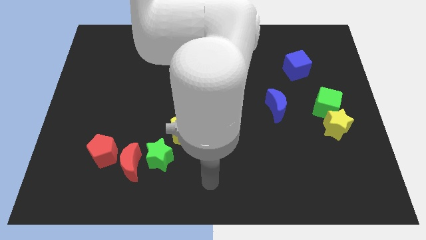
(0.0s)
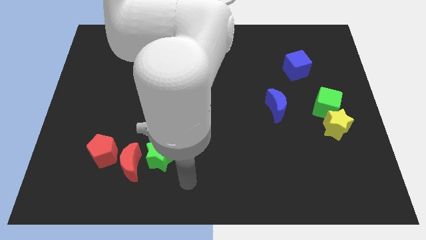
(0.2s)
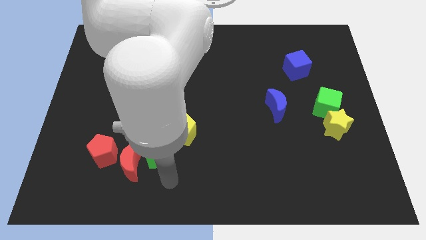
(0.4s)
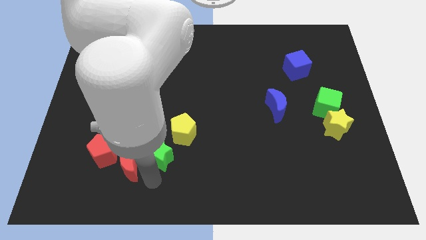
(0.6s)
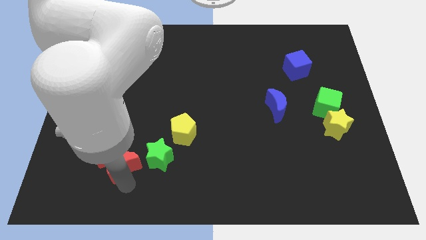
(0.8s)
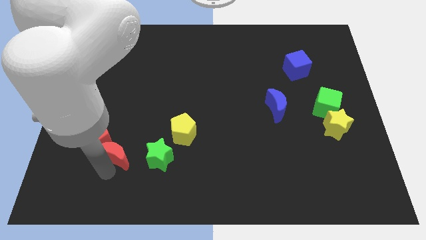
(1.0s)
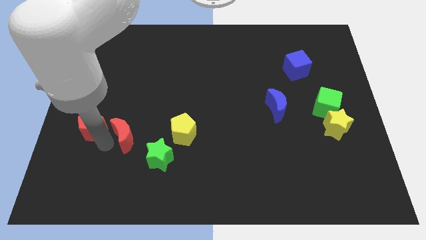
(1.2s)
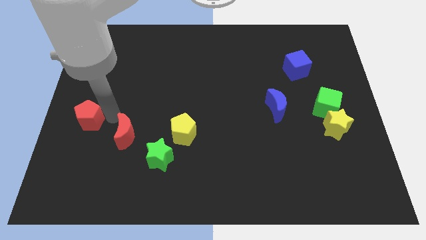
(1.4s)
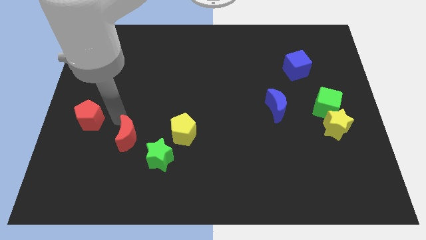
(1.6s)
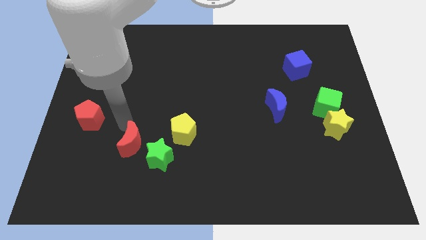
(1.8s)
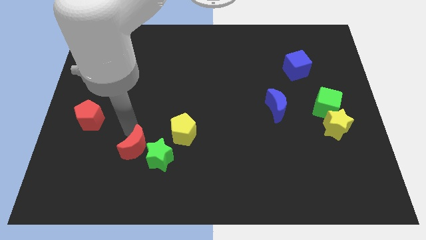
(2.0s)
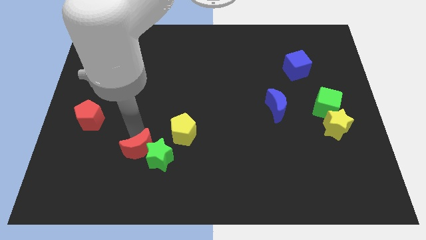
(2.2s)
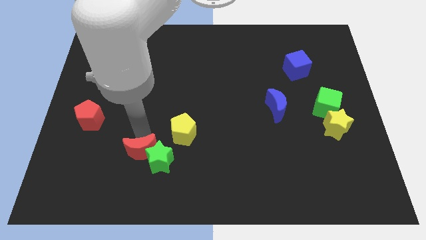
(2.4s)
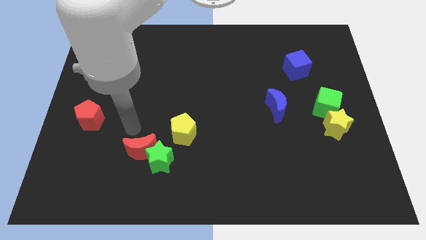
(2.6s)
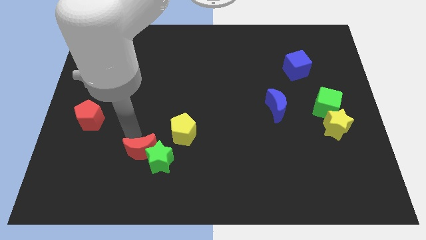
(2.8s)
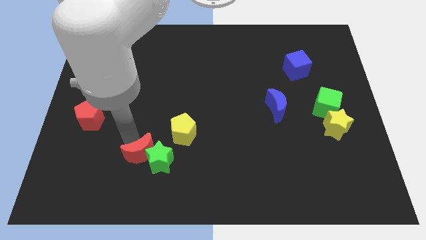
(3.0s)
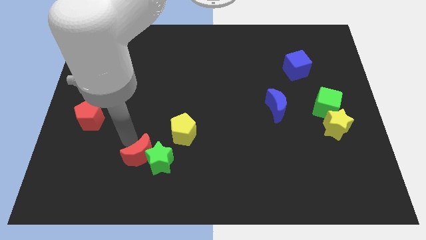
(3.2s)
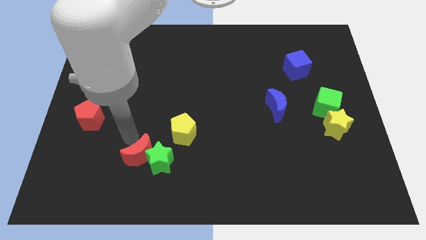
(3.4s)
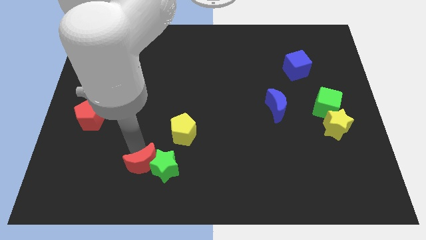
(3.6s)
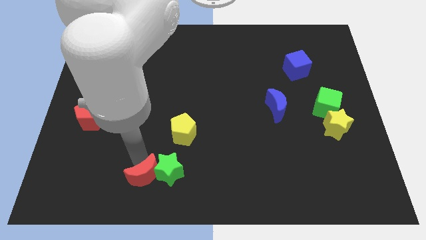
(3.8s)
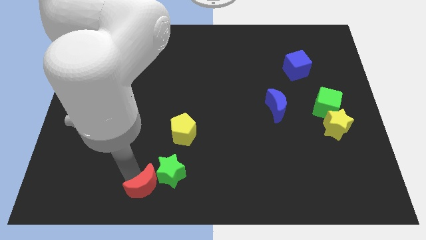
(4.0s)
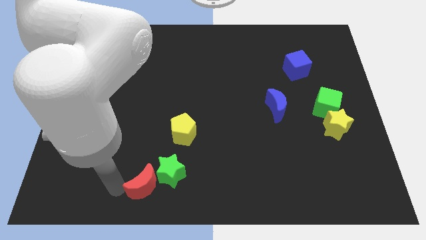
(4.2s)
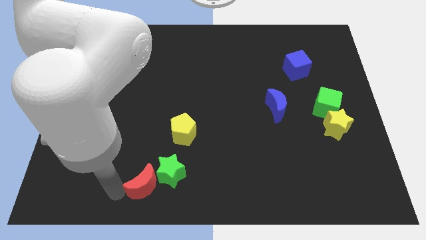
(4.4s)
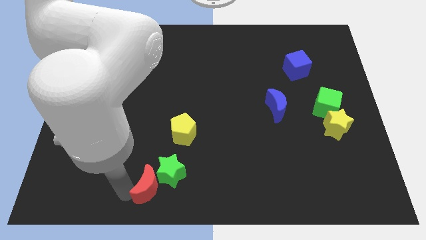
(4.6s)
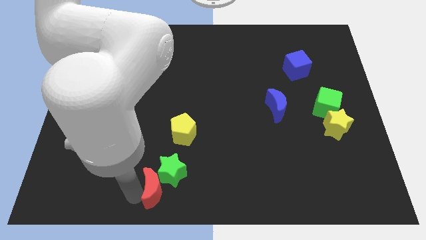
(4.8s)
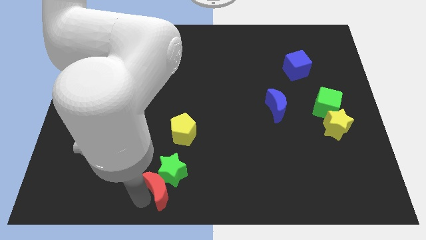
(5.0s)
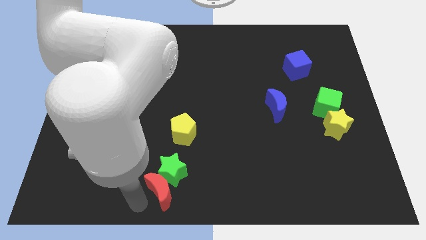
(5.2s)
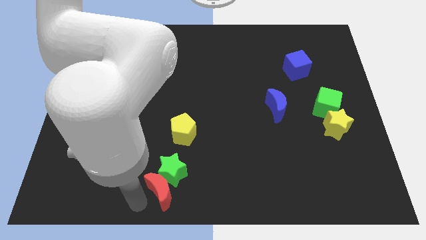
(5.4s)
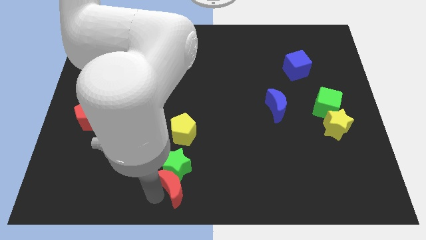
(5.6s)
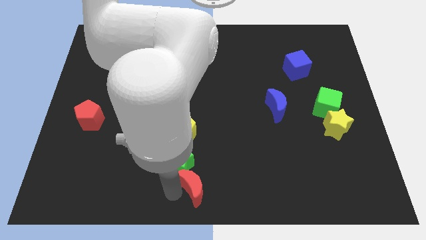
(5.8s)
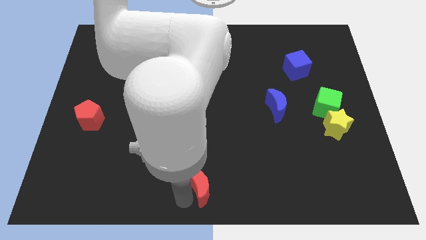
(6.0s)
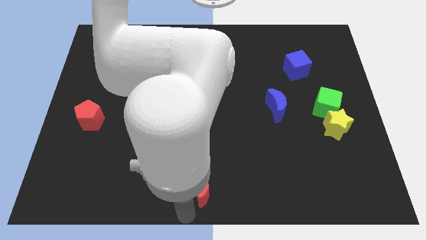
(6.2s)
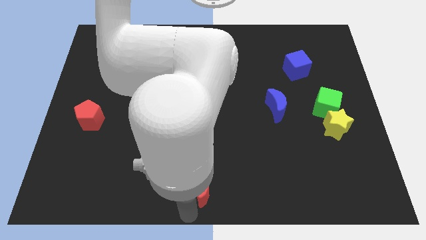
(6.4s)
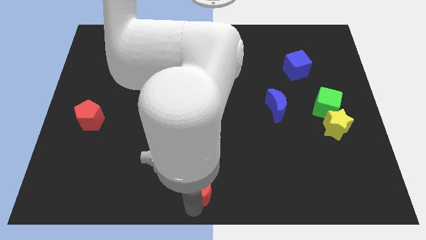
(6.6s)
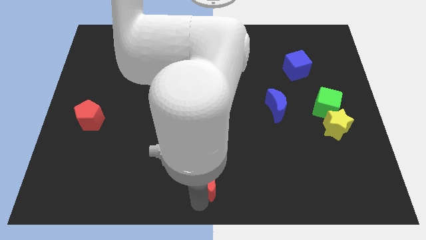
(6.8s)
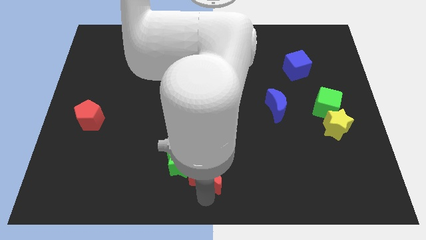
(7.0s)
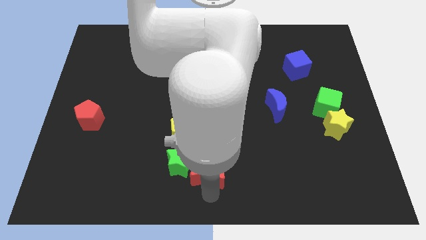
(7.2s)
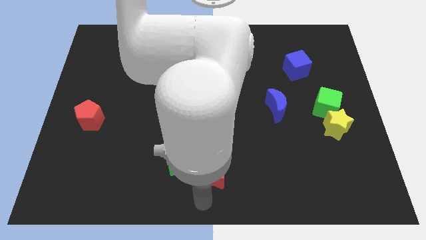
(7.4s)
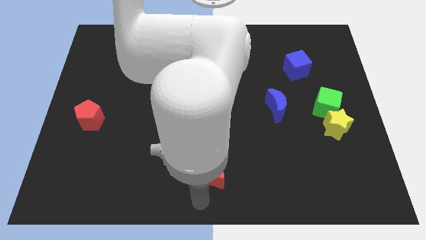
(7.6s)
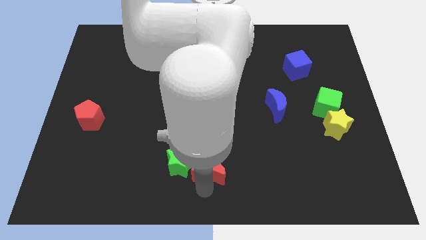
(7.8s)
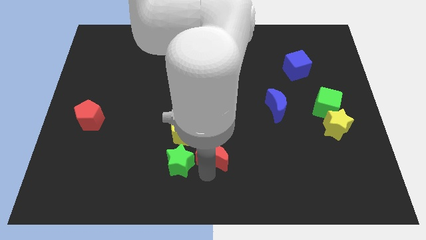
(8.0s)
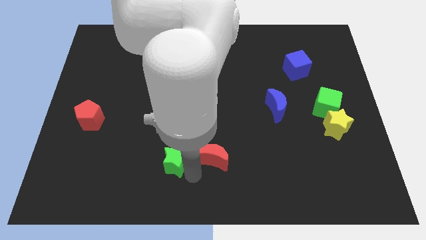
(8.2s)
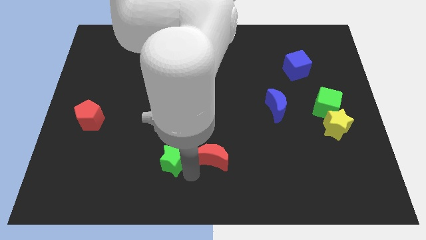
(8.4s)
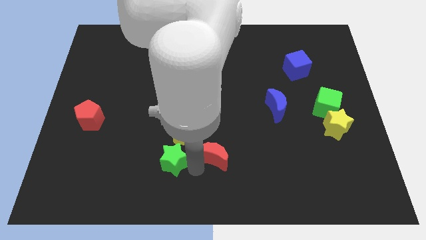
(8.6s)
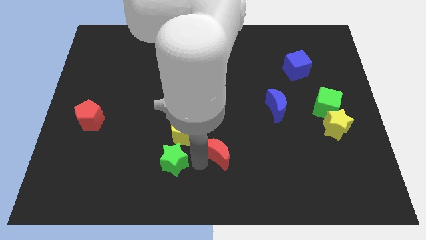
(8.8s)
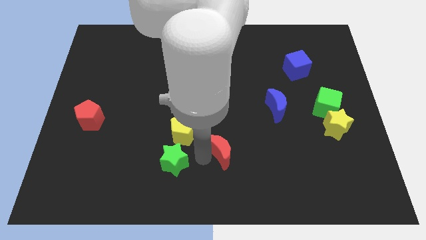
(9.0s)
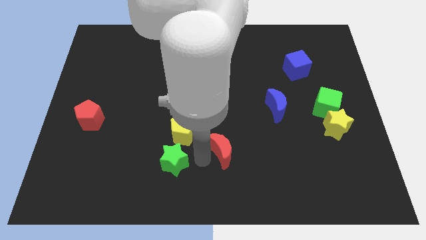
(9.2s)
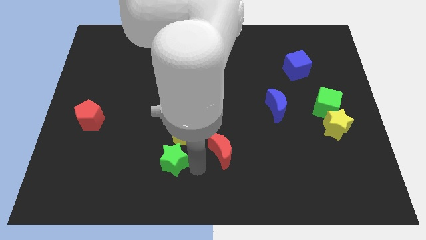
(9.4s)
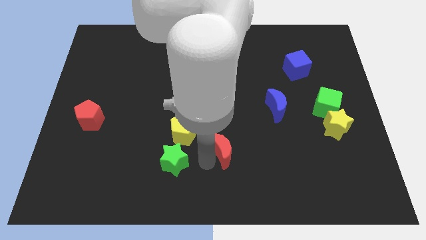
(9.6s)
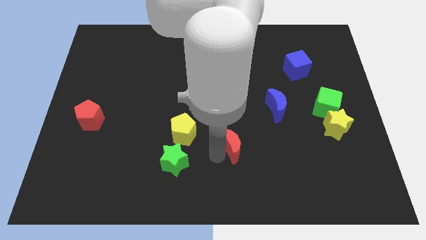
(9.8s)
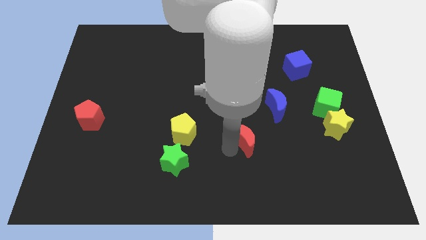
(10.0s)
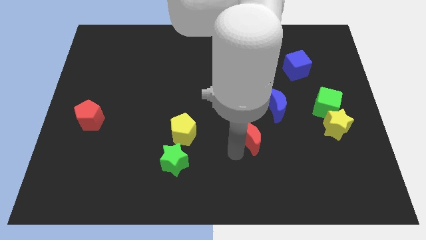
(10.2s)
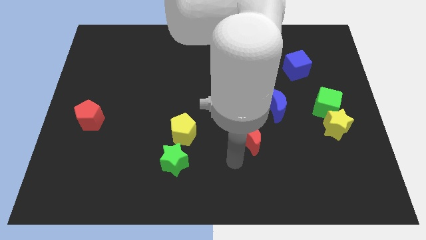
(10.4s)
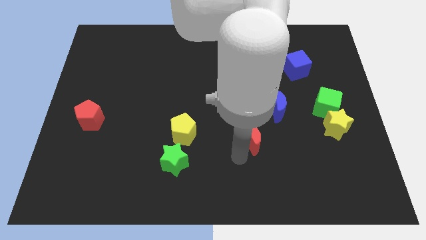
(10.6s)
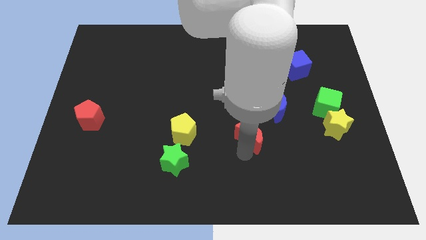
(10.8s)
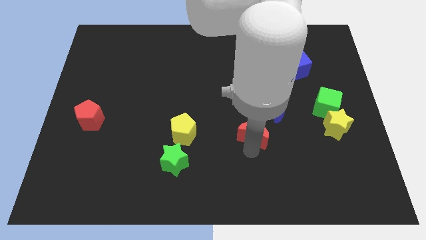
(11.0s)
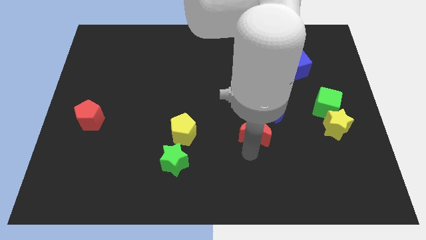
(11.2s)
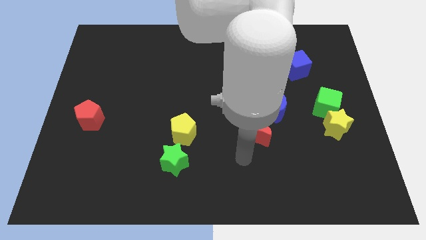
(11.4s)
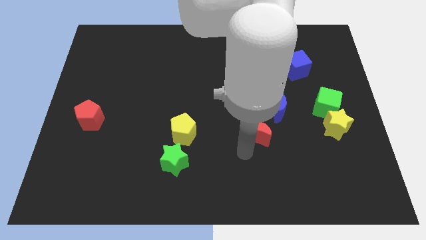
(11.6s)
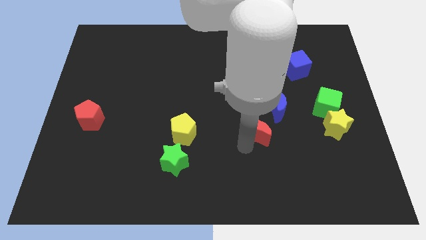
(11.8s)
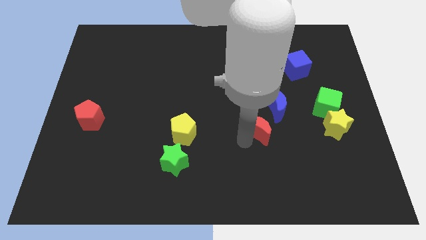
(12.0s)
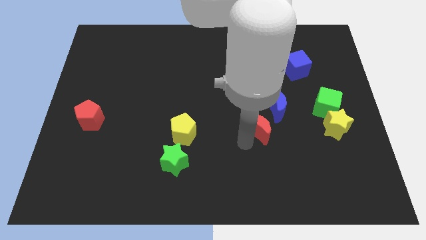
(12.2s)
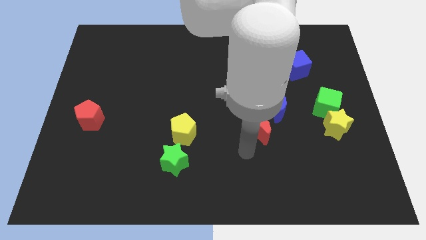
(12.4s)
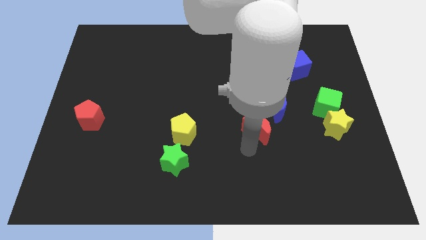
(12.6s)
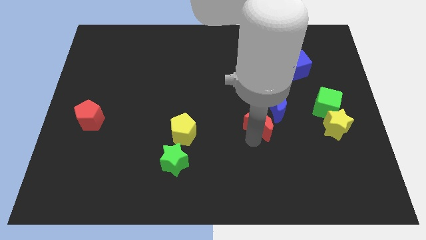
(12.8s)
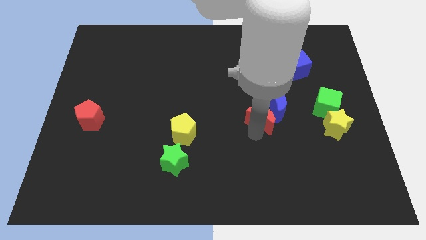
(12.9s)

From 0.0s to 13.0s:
slide the red moon close to the blue moon

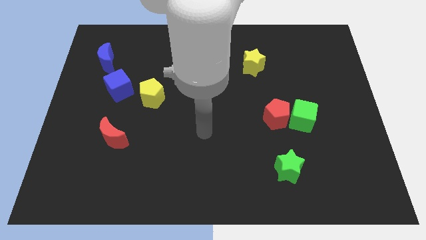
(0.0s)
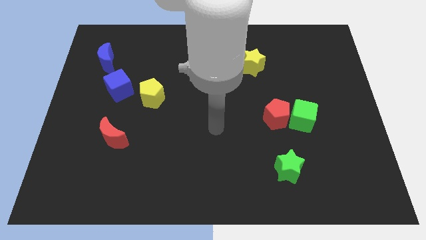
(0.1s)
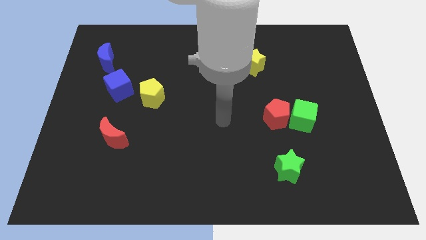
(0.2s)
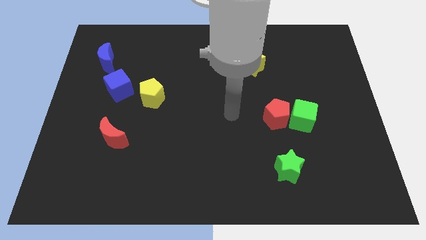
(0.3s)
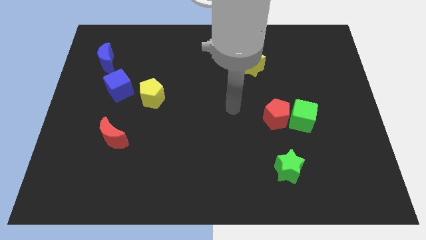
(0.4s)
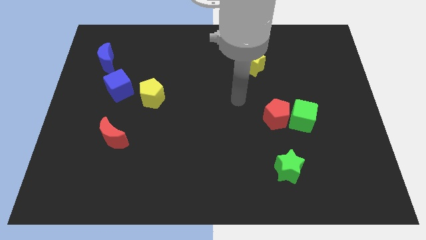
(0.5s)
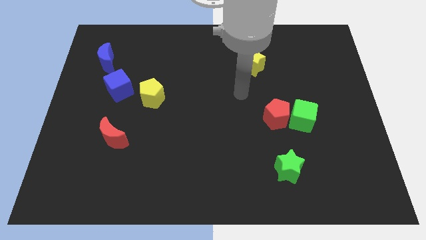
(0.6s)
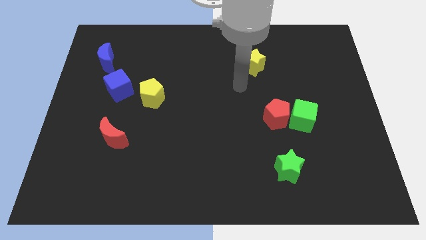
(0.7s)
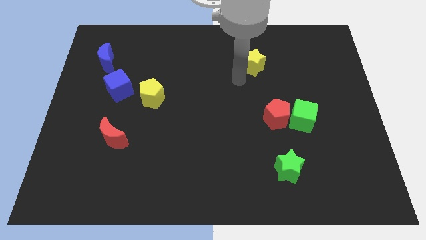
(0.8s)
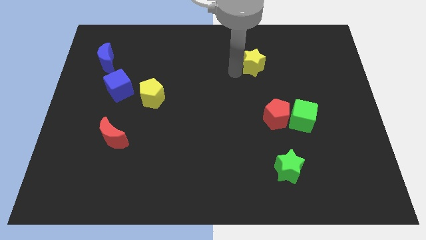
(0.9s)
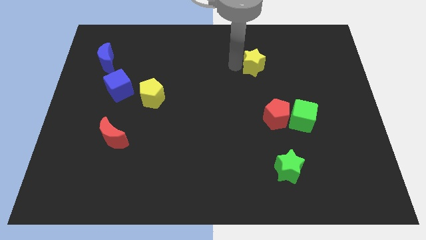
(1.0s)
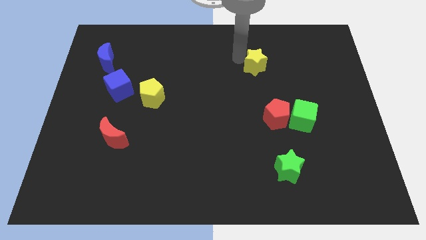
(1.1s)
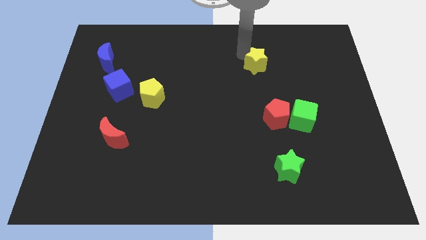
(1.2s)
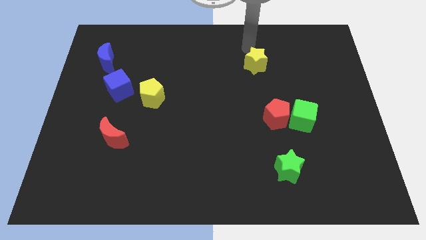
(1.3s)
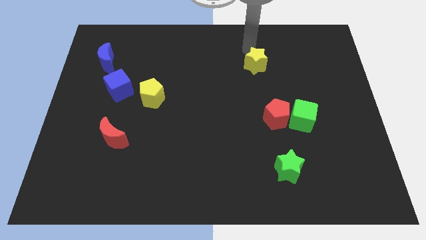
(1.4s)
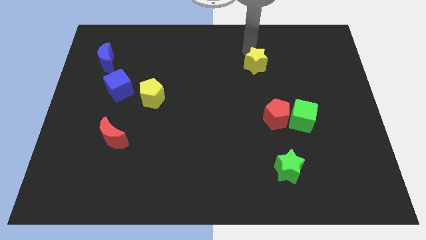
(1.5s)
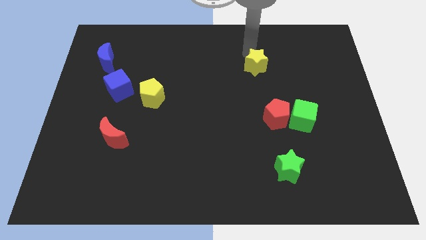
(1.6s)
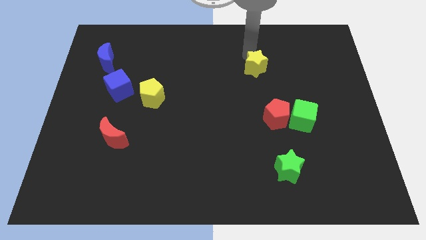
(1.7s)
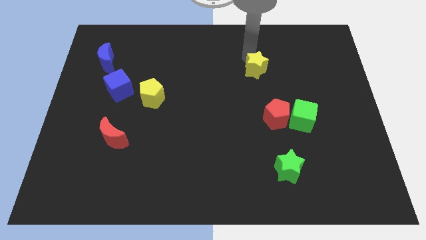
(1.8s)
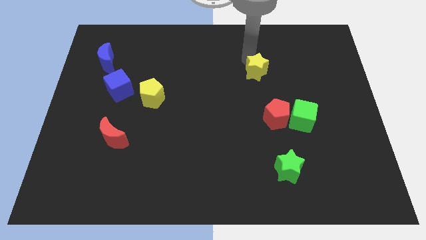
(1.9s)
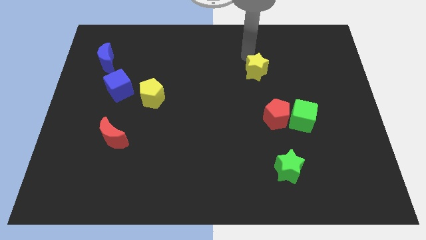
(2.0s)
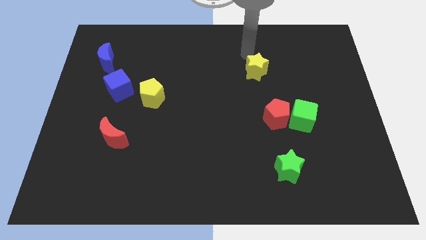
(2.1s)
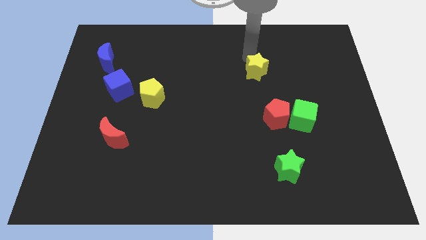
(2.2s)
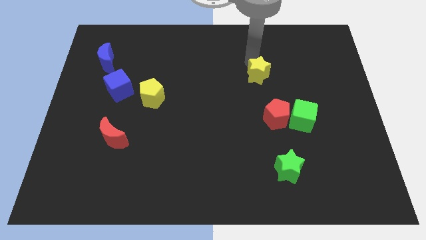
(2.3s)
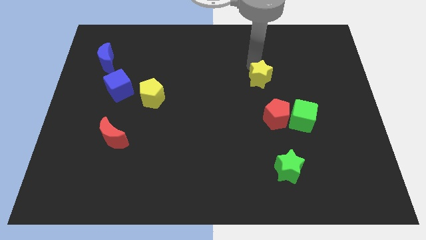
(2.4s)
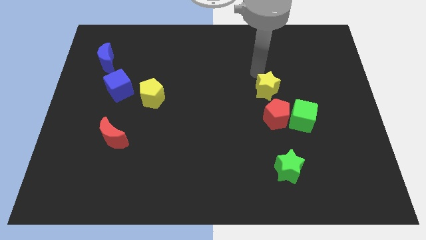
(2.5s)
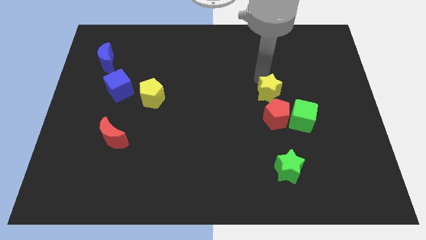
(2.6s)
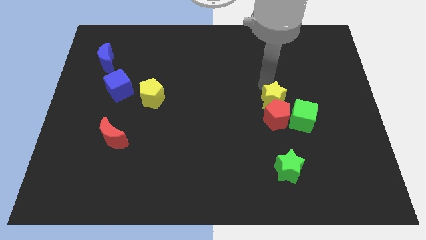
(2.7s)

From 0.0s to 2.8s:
push the yellow star to the red pentagon
